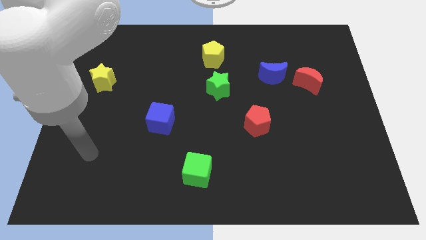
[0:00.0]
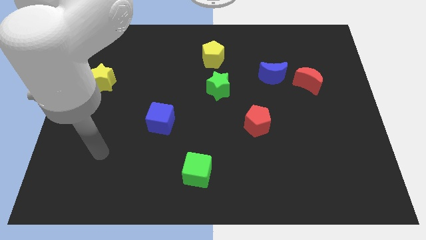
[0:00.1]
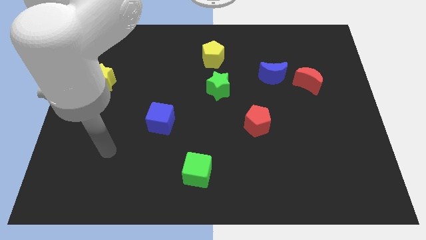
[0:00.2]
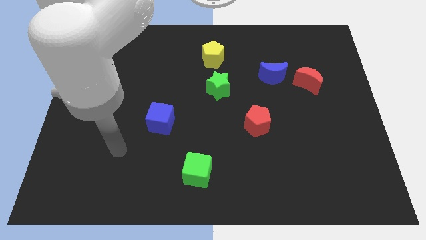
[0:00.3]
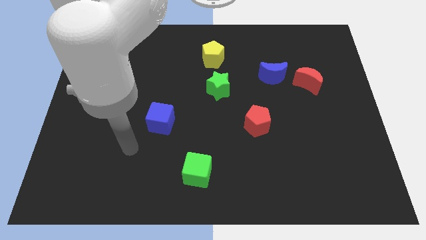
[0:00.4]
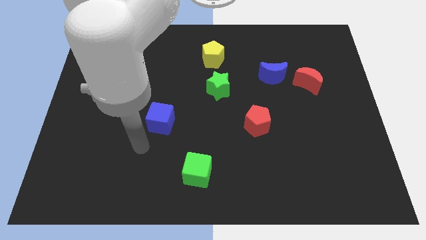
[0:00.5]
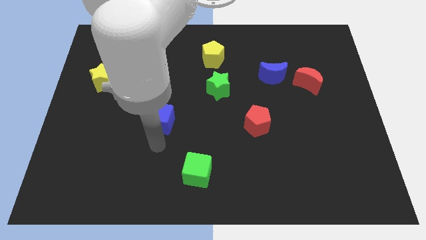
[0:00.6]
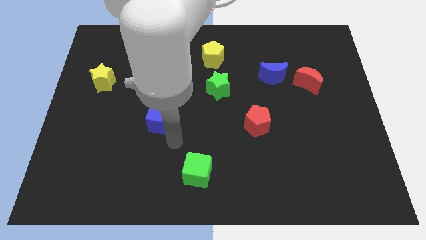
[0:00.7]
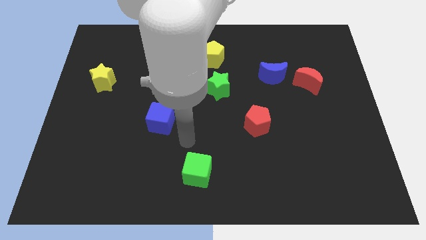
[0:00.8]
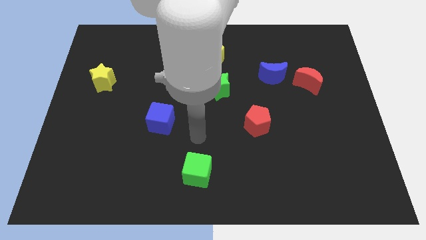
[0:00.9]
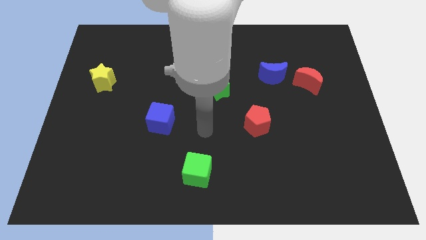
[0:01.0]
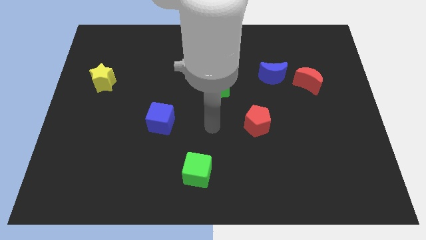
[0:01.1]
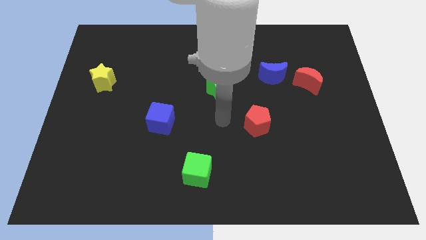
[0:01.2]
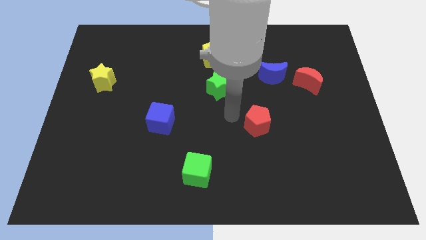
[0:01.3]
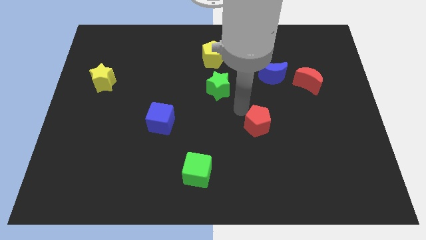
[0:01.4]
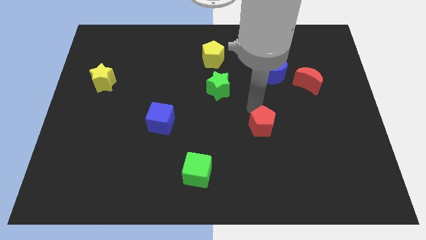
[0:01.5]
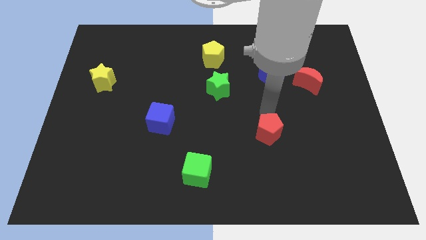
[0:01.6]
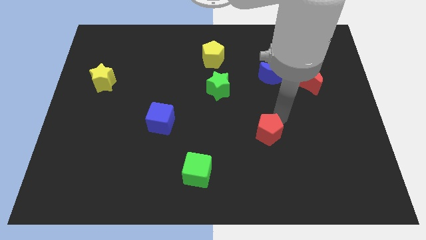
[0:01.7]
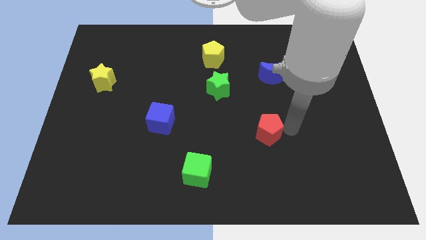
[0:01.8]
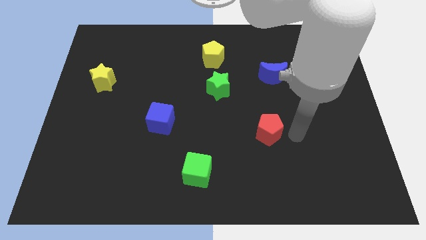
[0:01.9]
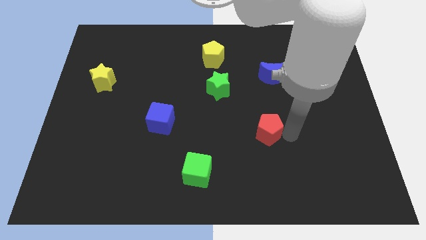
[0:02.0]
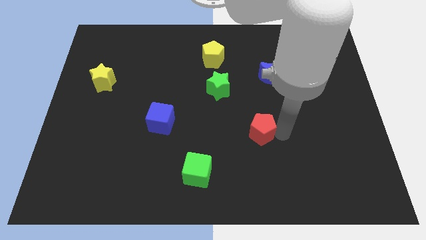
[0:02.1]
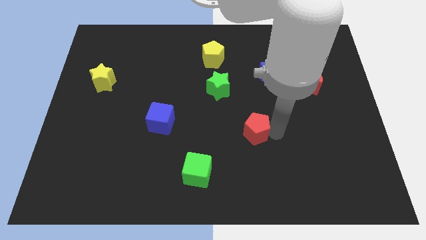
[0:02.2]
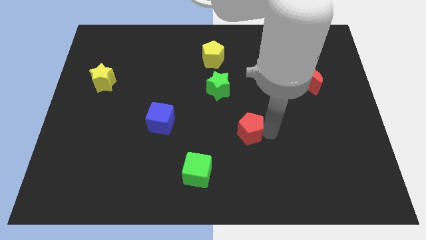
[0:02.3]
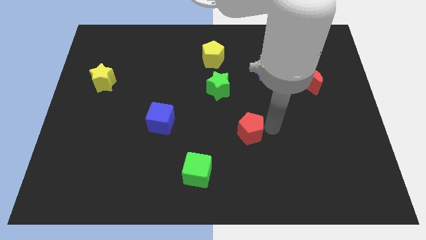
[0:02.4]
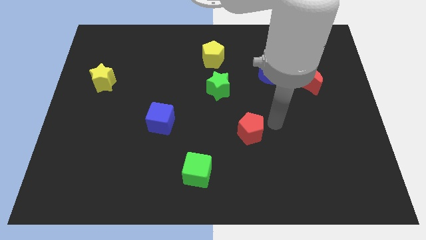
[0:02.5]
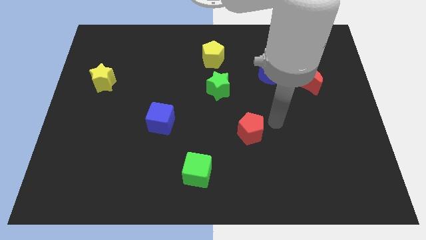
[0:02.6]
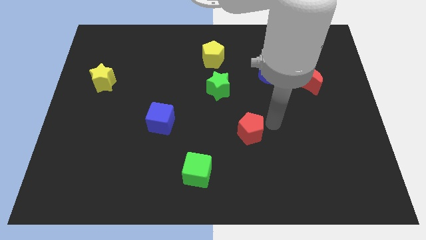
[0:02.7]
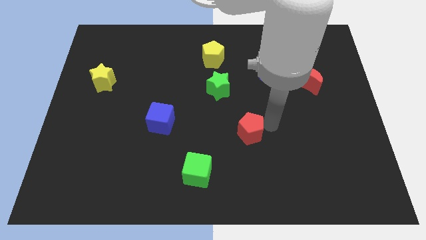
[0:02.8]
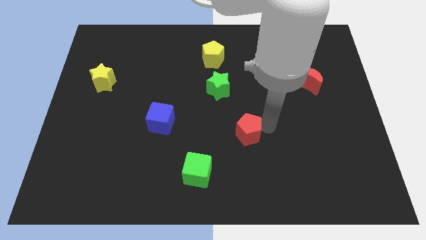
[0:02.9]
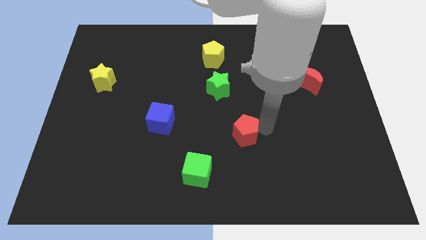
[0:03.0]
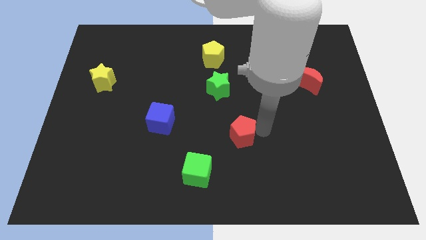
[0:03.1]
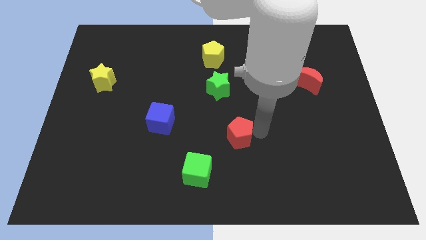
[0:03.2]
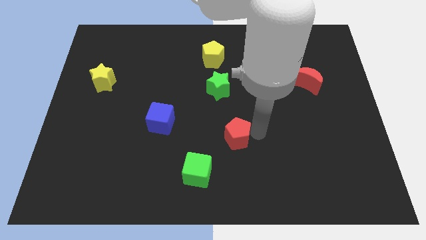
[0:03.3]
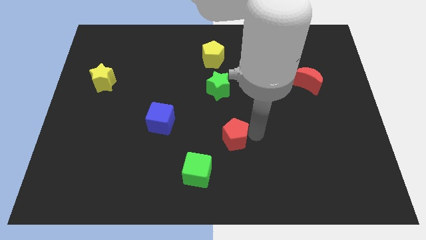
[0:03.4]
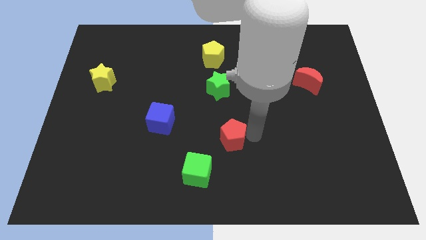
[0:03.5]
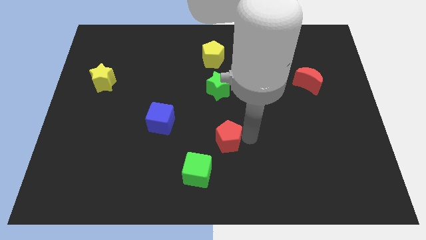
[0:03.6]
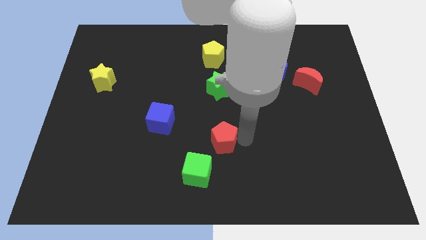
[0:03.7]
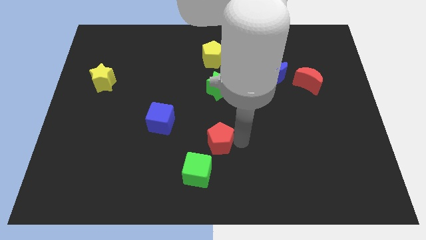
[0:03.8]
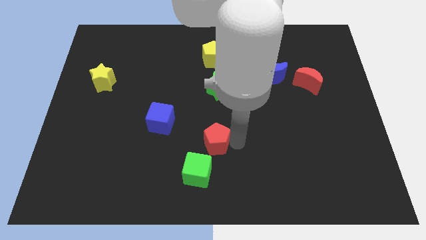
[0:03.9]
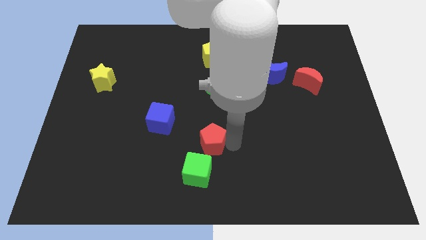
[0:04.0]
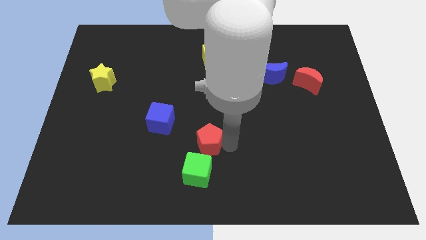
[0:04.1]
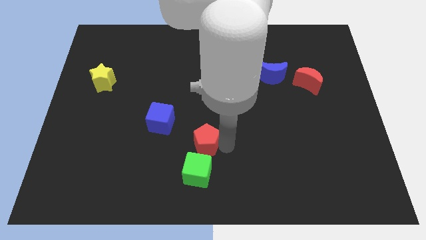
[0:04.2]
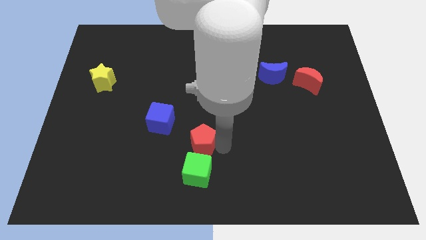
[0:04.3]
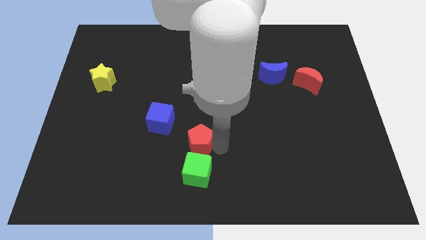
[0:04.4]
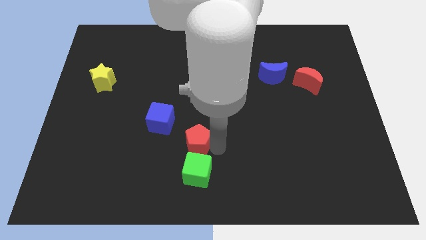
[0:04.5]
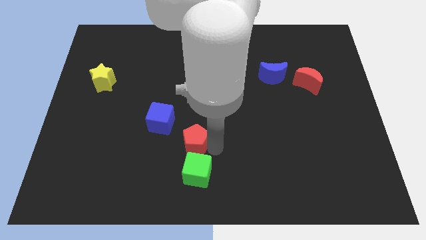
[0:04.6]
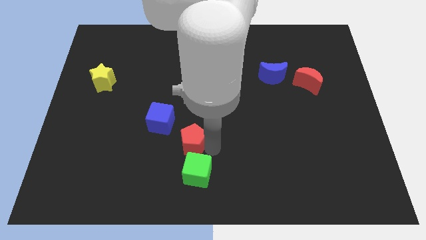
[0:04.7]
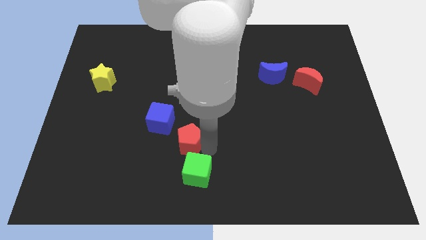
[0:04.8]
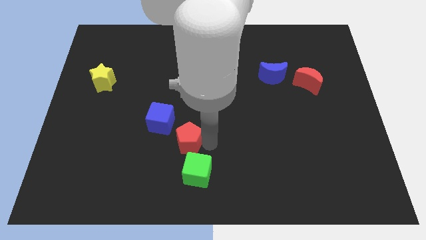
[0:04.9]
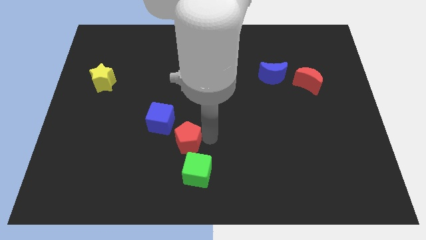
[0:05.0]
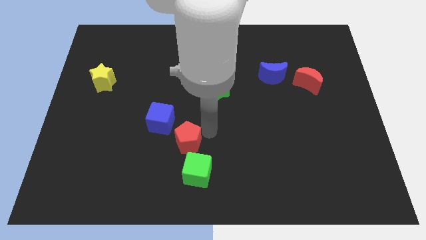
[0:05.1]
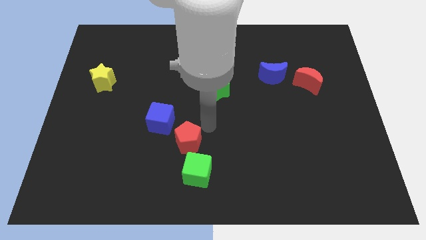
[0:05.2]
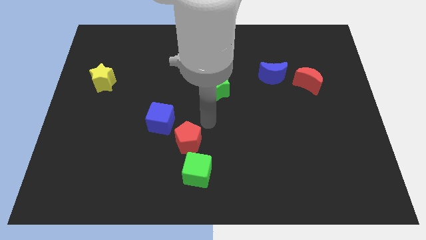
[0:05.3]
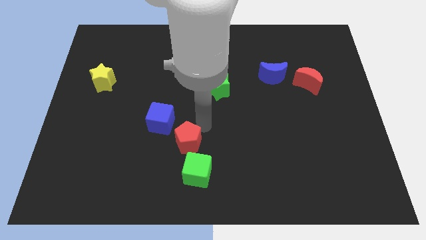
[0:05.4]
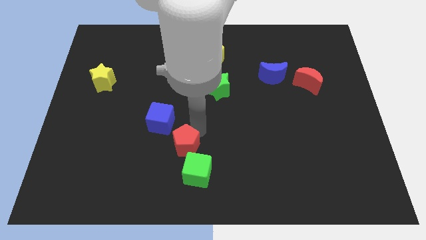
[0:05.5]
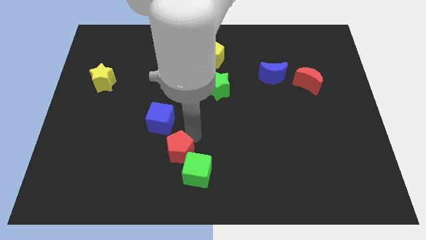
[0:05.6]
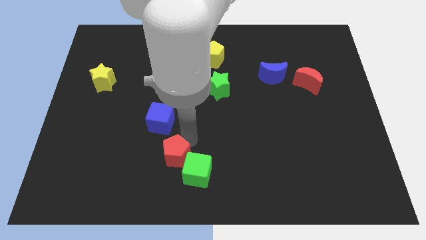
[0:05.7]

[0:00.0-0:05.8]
put the red pentagon just left of the green cube

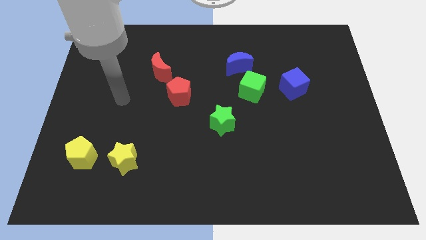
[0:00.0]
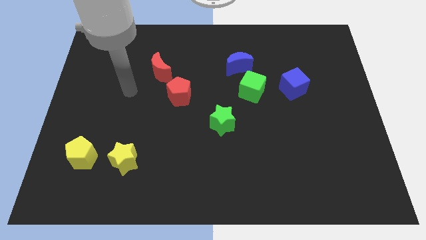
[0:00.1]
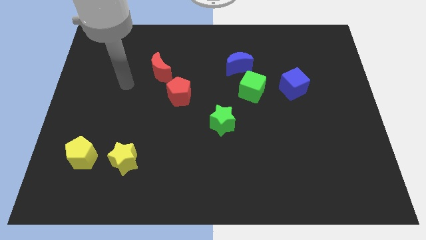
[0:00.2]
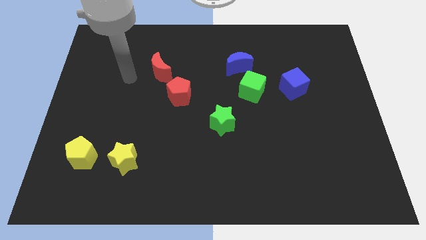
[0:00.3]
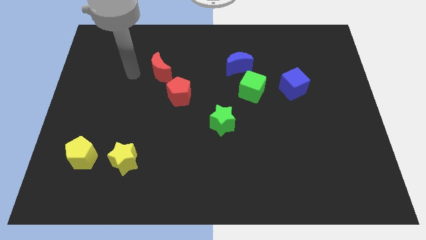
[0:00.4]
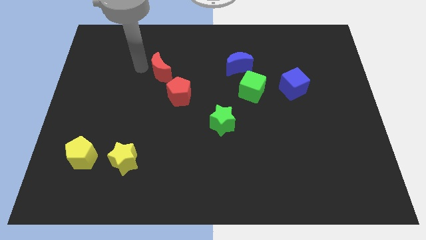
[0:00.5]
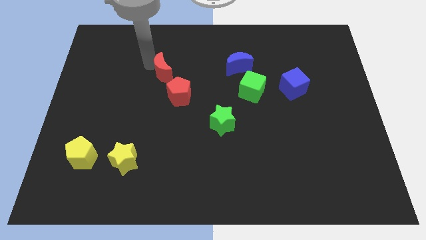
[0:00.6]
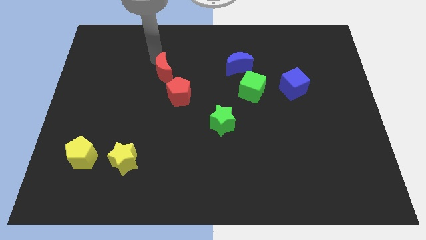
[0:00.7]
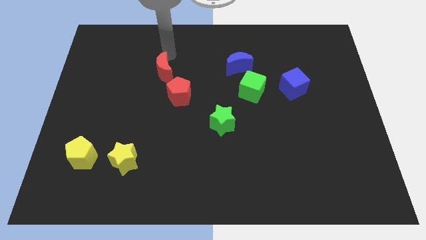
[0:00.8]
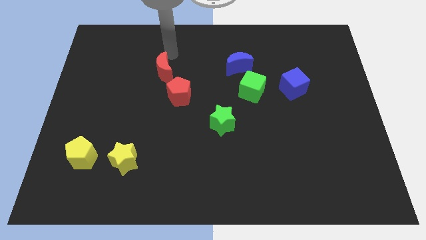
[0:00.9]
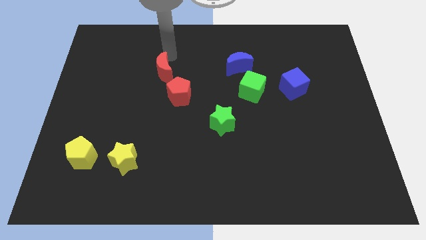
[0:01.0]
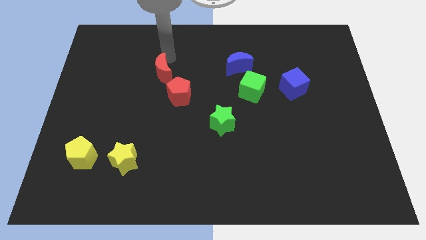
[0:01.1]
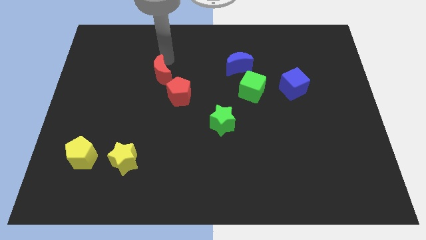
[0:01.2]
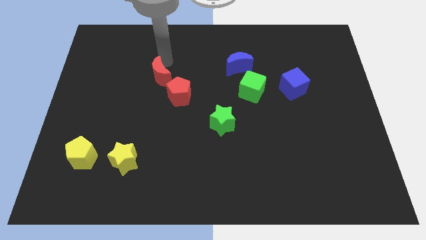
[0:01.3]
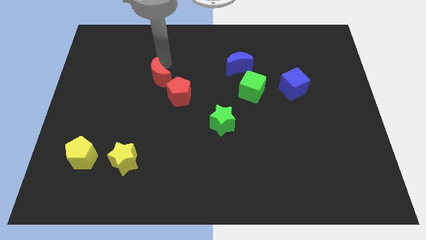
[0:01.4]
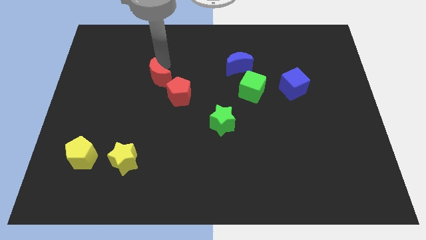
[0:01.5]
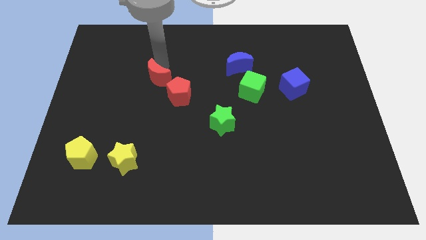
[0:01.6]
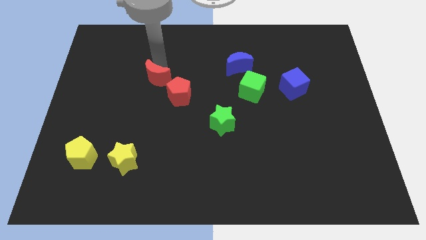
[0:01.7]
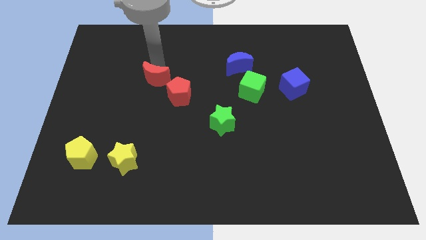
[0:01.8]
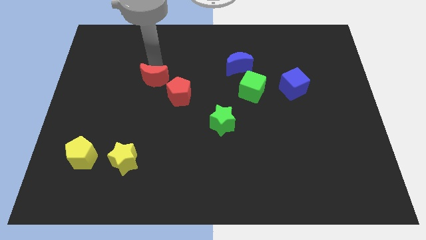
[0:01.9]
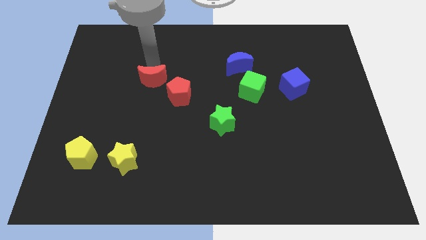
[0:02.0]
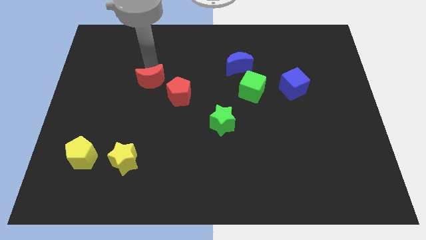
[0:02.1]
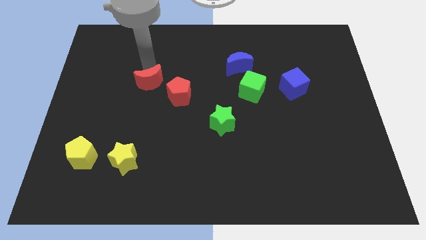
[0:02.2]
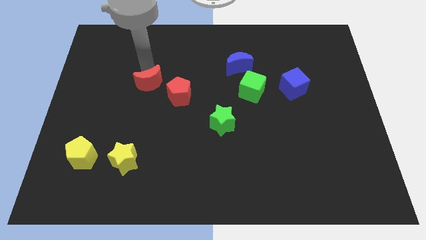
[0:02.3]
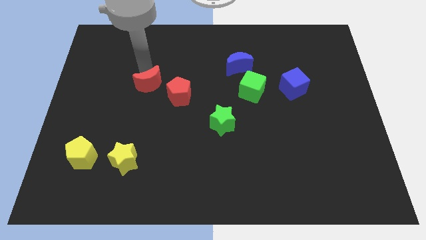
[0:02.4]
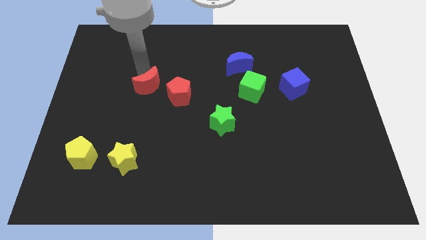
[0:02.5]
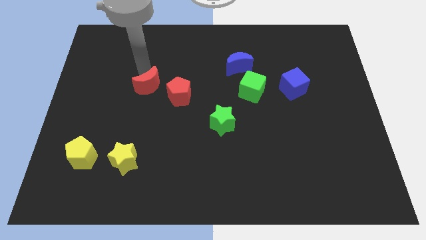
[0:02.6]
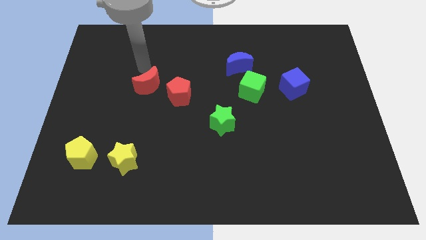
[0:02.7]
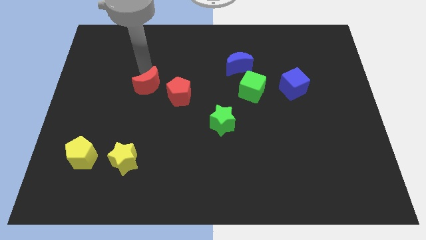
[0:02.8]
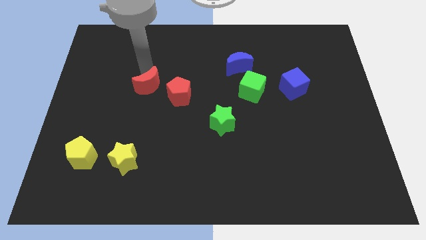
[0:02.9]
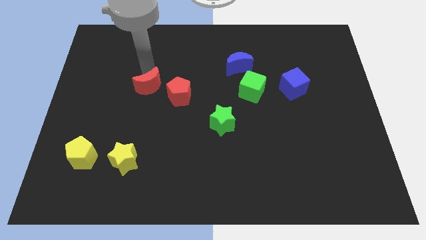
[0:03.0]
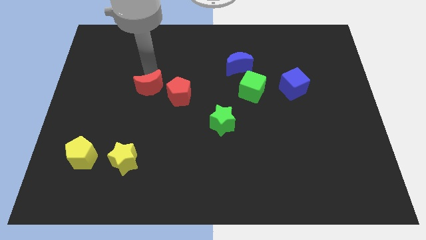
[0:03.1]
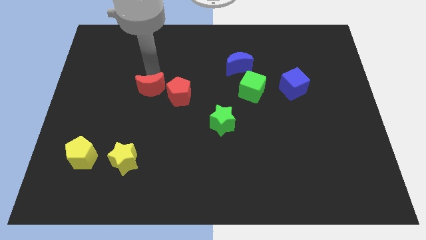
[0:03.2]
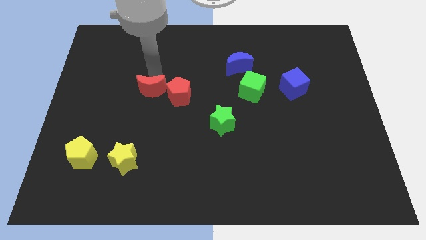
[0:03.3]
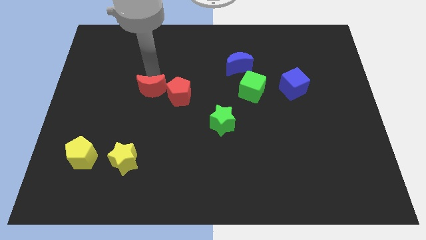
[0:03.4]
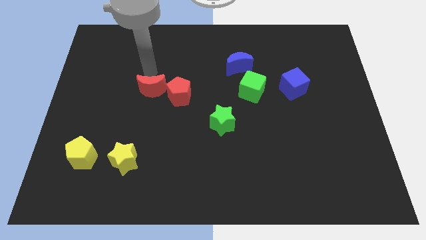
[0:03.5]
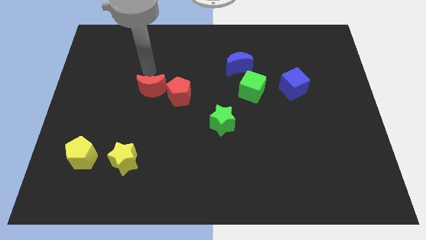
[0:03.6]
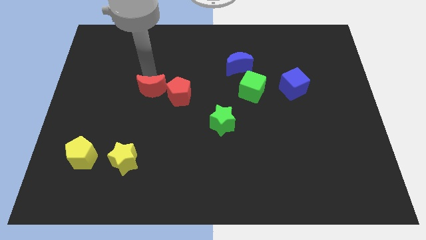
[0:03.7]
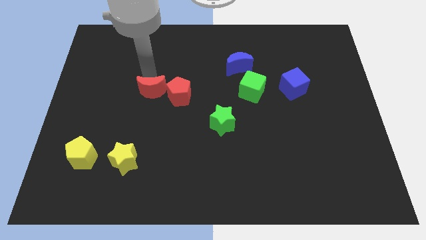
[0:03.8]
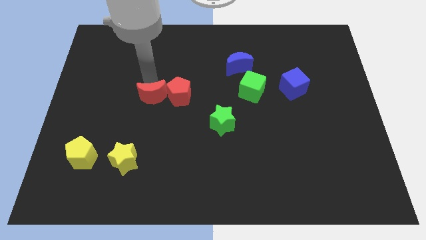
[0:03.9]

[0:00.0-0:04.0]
slide the red moon diagonally down and to the left of the red pentagon
